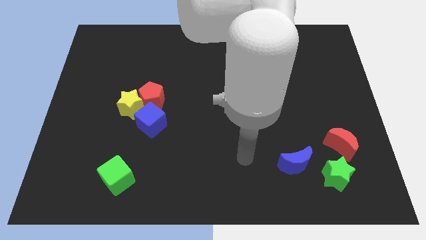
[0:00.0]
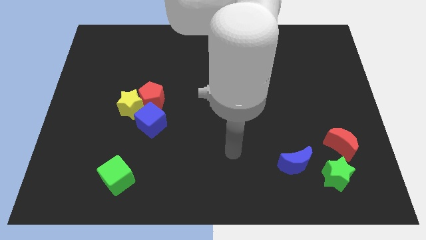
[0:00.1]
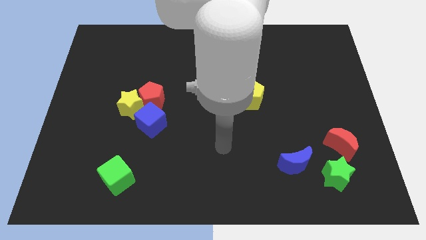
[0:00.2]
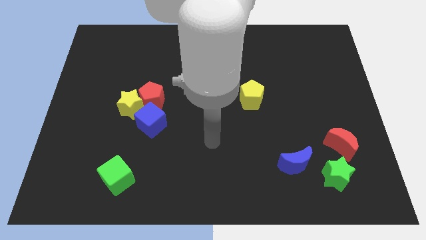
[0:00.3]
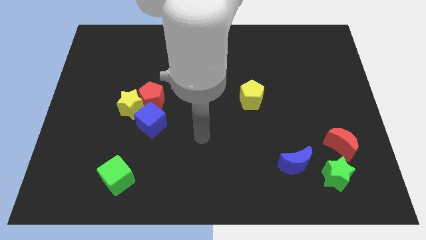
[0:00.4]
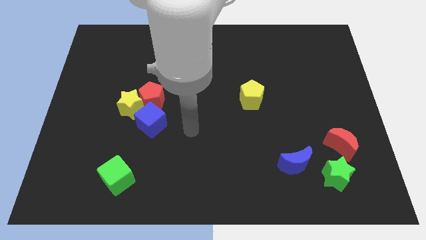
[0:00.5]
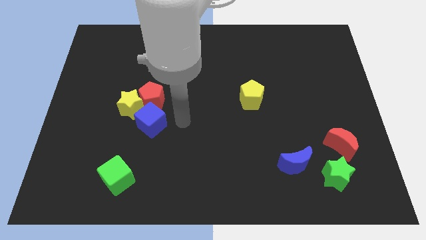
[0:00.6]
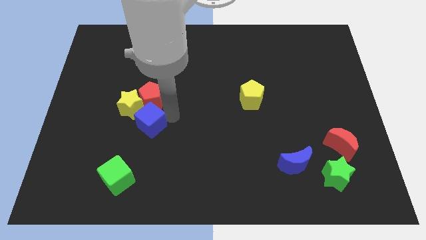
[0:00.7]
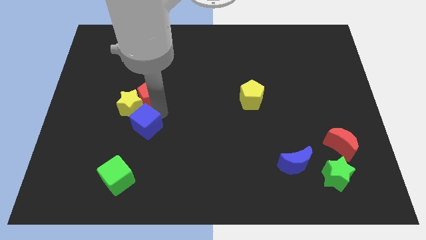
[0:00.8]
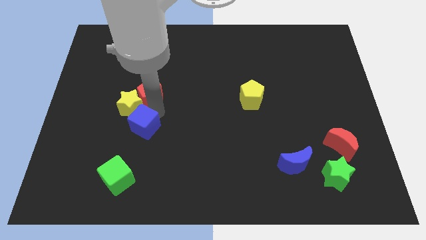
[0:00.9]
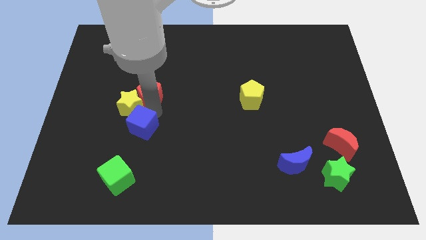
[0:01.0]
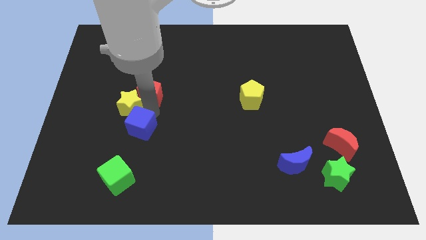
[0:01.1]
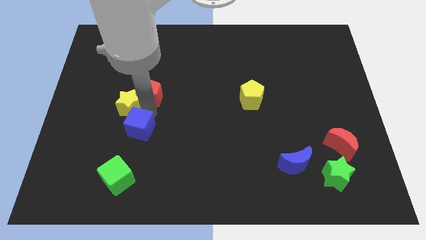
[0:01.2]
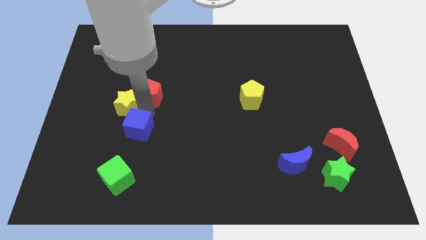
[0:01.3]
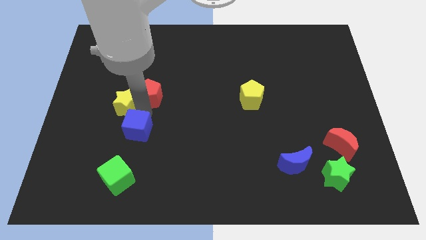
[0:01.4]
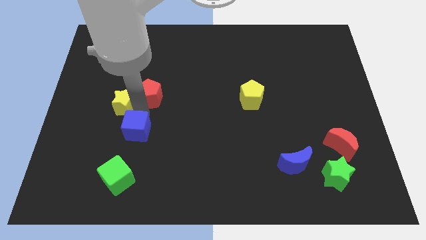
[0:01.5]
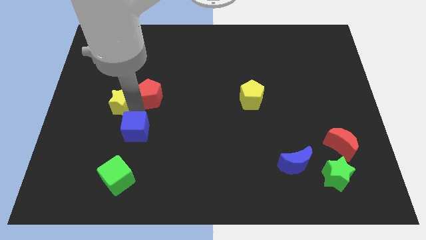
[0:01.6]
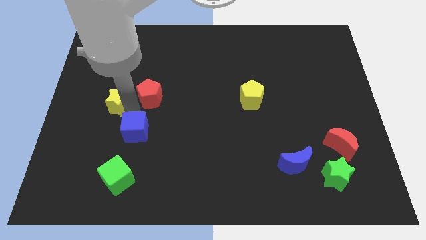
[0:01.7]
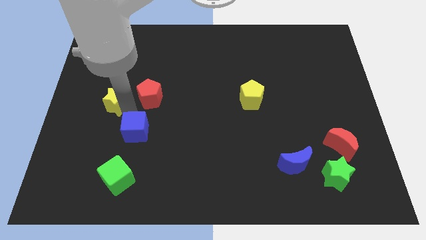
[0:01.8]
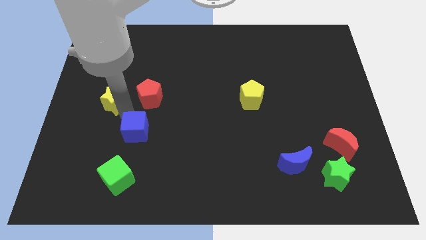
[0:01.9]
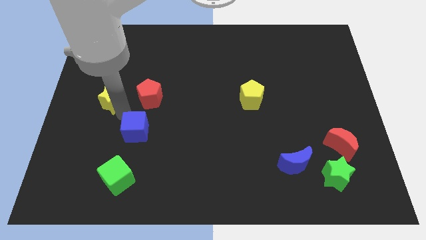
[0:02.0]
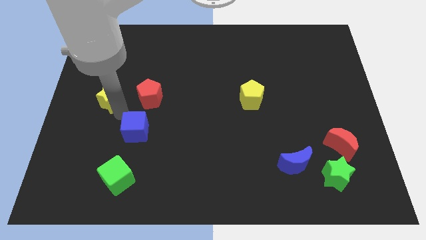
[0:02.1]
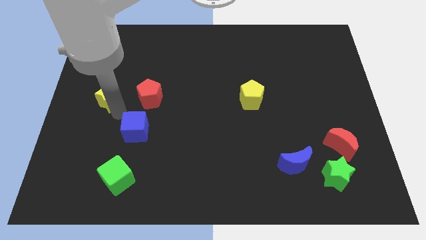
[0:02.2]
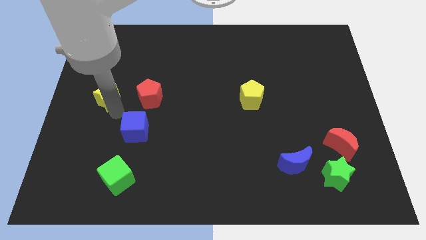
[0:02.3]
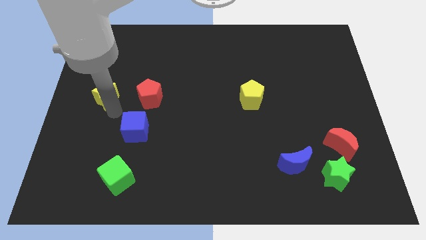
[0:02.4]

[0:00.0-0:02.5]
separate the yellow star from the red pentagon and blue cube

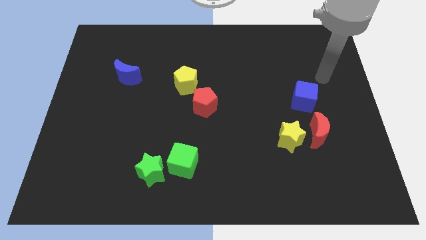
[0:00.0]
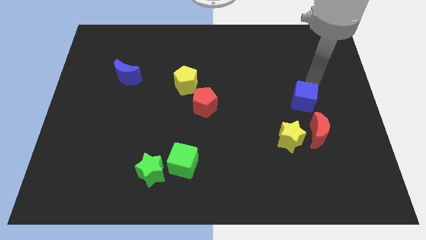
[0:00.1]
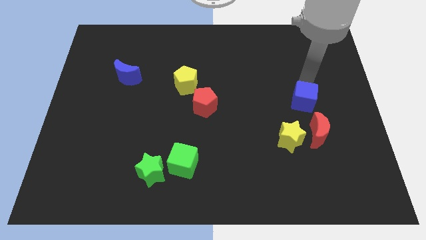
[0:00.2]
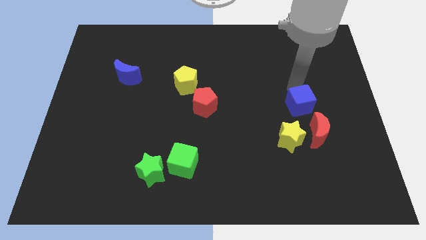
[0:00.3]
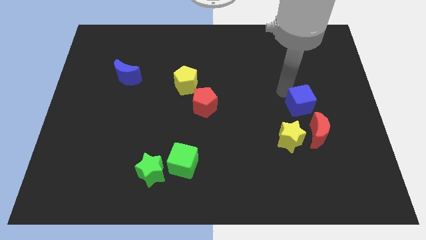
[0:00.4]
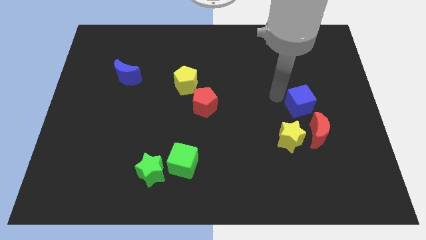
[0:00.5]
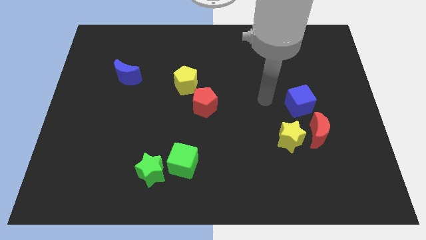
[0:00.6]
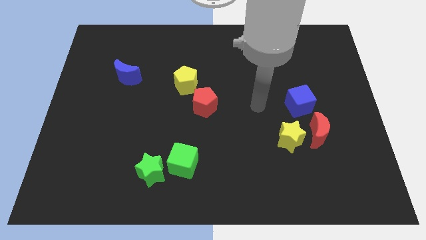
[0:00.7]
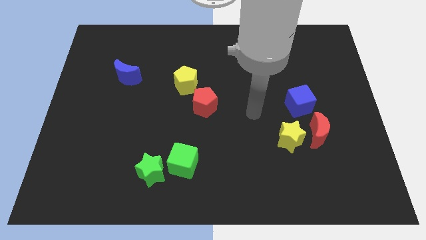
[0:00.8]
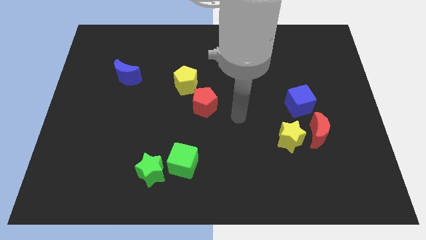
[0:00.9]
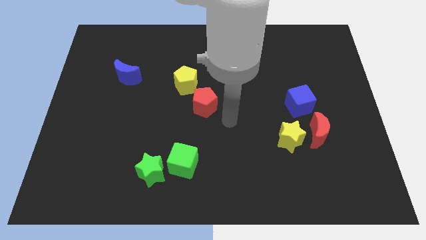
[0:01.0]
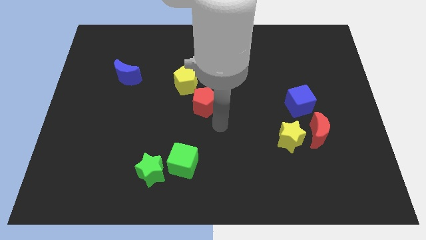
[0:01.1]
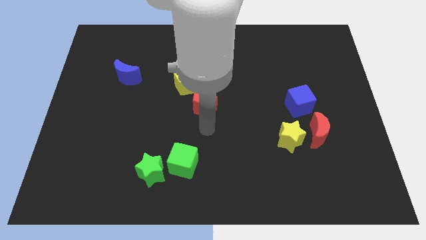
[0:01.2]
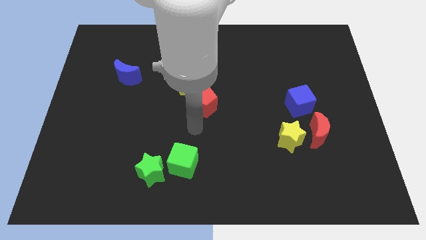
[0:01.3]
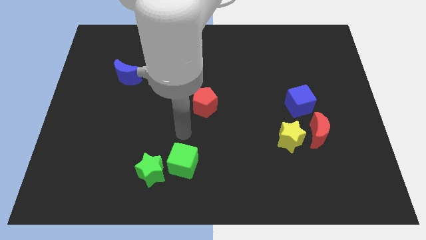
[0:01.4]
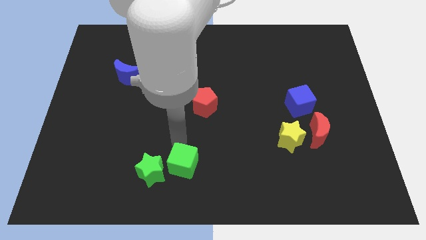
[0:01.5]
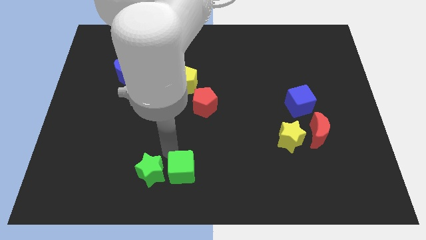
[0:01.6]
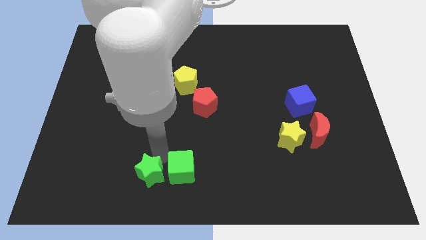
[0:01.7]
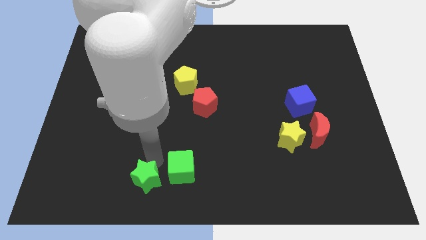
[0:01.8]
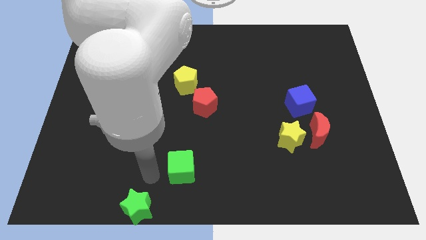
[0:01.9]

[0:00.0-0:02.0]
move the green cube away from the green star

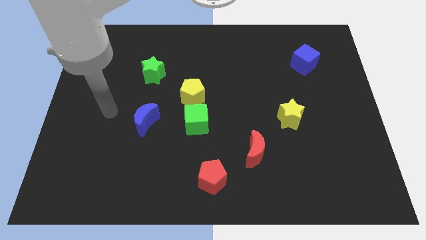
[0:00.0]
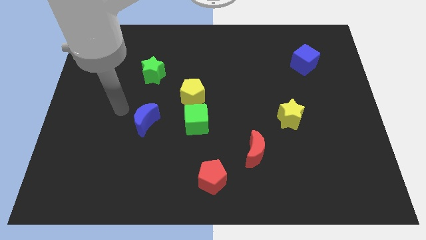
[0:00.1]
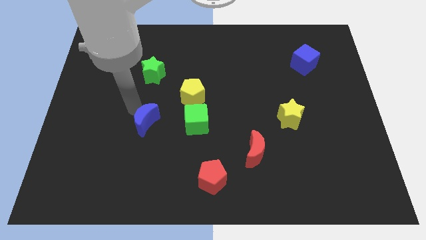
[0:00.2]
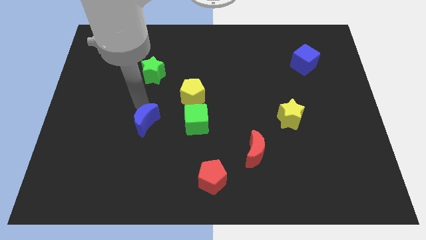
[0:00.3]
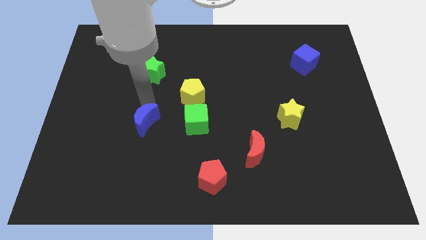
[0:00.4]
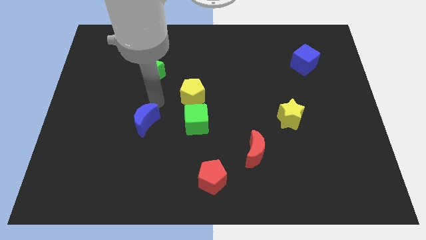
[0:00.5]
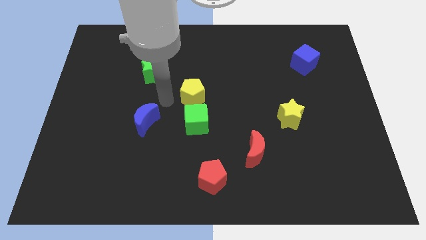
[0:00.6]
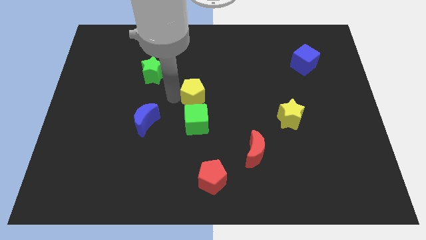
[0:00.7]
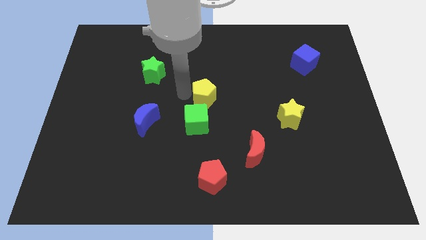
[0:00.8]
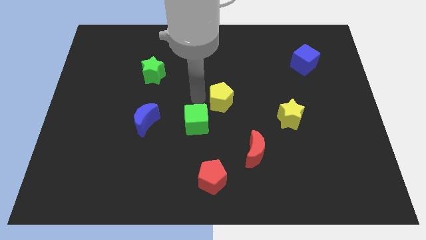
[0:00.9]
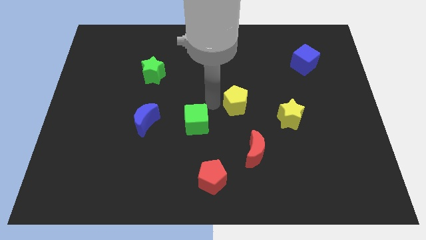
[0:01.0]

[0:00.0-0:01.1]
pull the green cube apart from the yellow pentagon

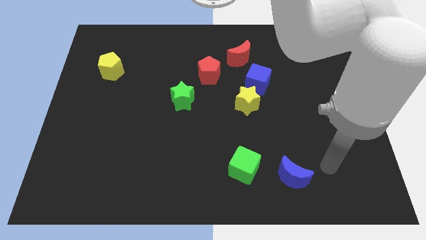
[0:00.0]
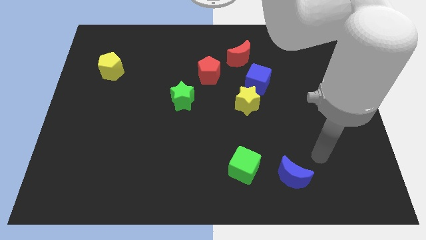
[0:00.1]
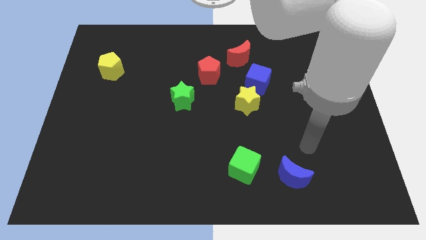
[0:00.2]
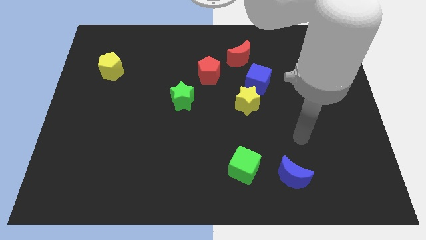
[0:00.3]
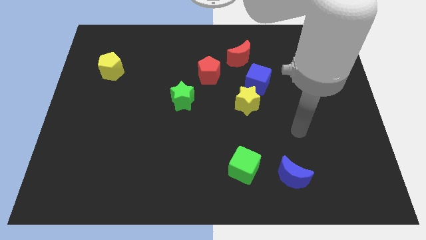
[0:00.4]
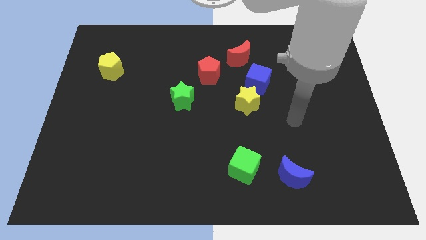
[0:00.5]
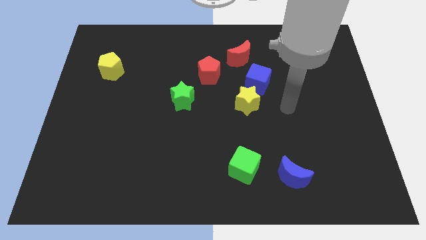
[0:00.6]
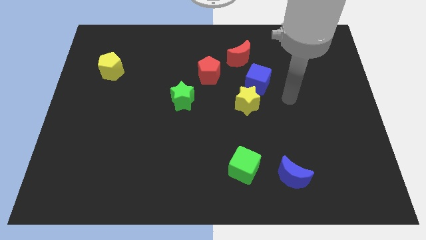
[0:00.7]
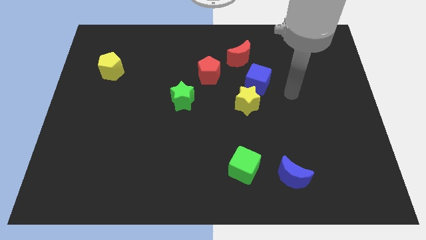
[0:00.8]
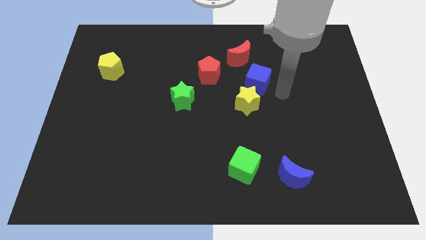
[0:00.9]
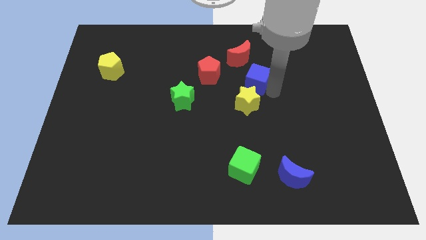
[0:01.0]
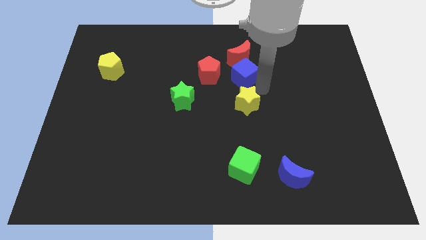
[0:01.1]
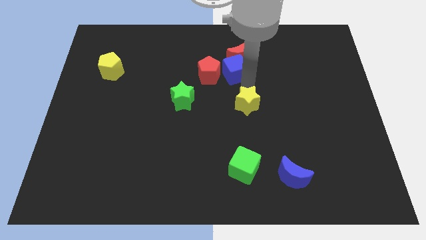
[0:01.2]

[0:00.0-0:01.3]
pull the yellow star apart from the blue cube

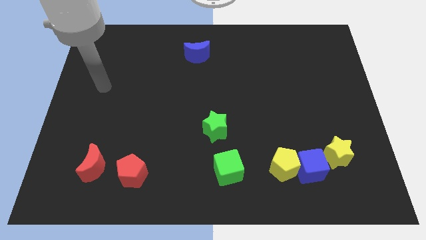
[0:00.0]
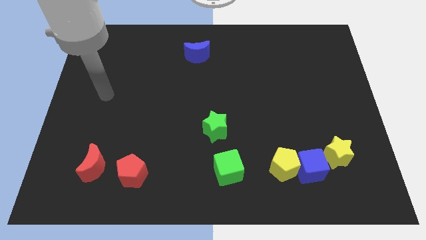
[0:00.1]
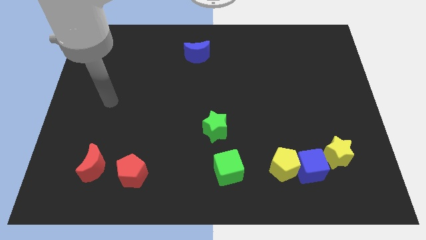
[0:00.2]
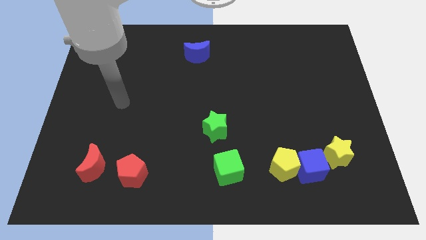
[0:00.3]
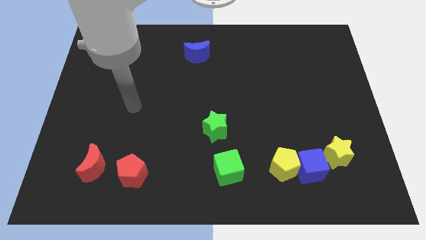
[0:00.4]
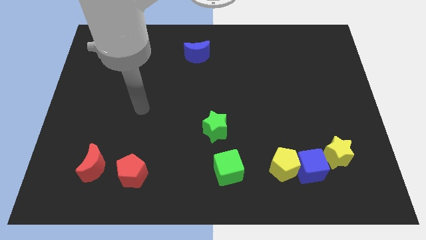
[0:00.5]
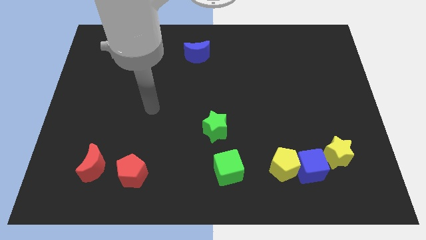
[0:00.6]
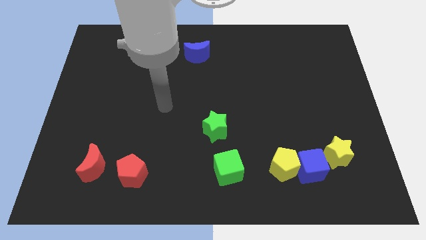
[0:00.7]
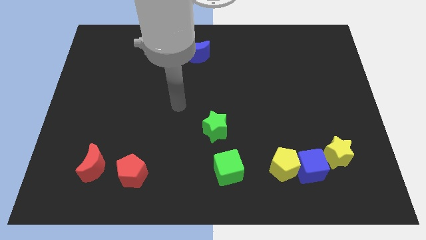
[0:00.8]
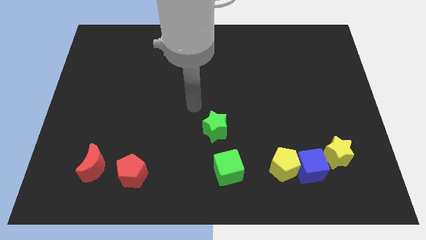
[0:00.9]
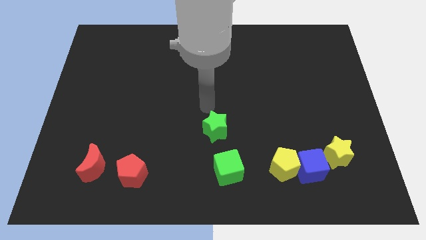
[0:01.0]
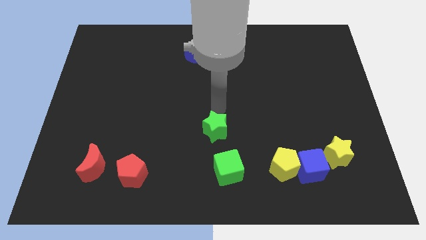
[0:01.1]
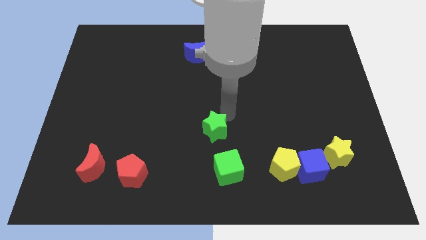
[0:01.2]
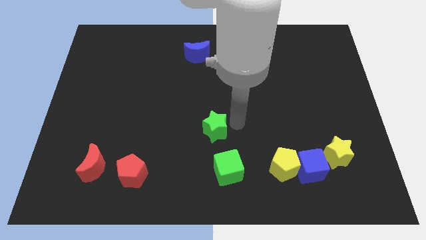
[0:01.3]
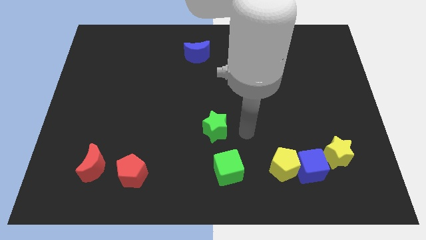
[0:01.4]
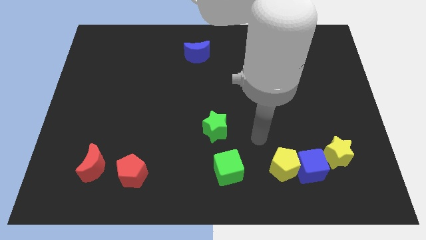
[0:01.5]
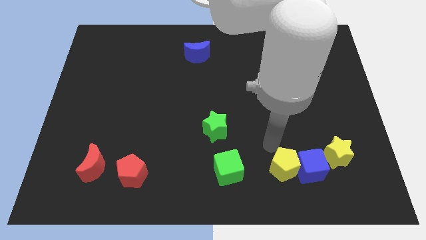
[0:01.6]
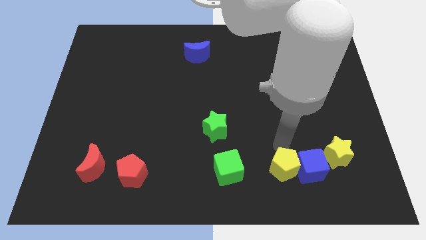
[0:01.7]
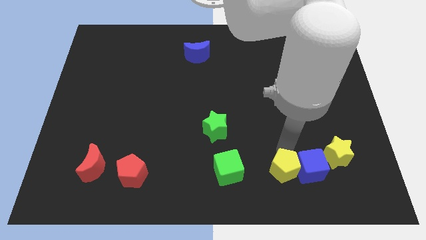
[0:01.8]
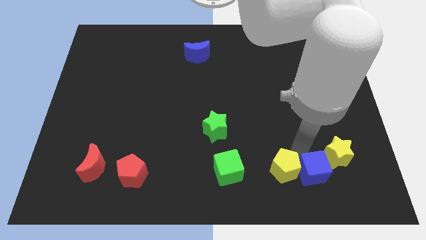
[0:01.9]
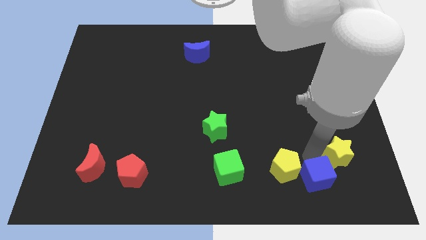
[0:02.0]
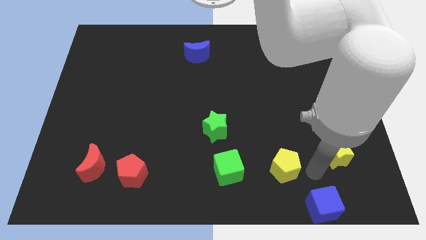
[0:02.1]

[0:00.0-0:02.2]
move the yellow pentagon away from the blue cube
